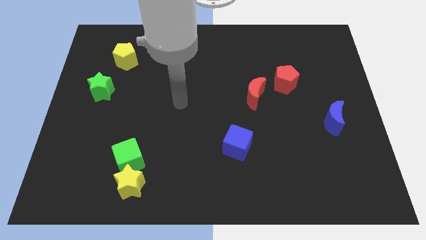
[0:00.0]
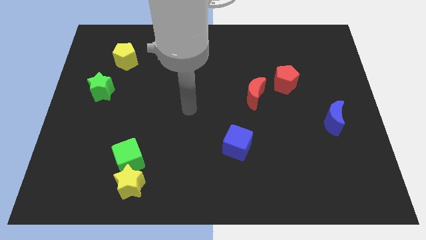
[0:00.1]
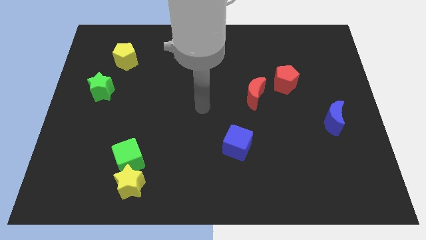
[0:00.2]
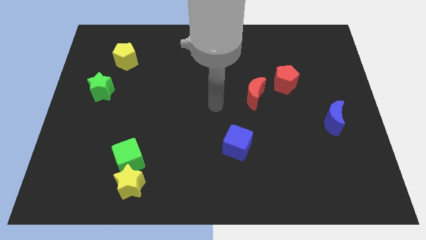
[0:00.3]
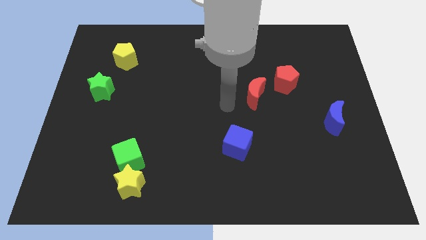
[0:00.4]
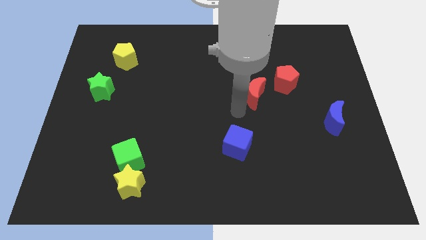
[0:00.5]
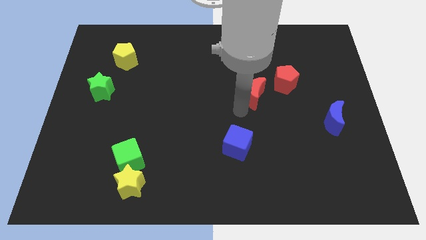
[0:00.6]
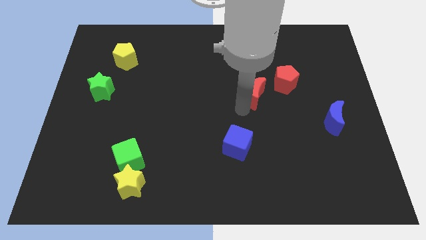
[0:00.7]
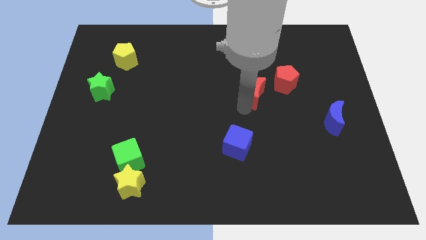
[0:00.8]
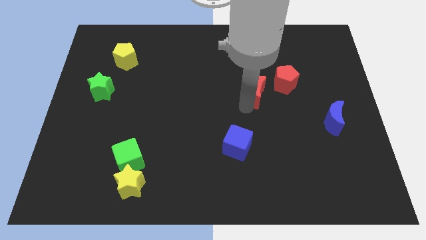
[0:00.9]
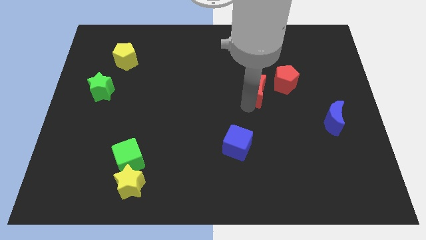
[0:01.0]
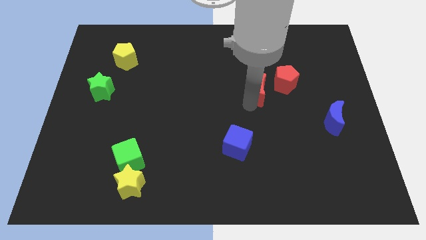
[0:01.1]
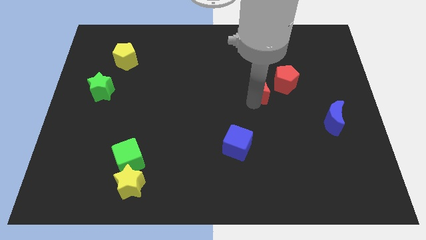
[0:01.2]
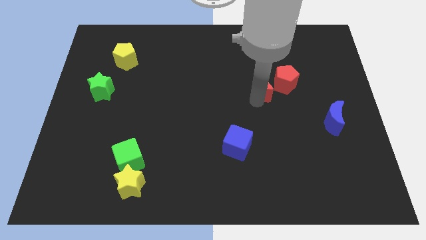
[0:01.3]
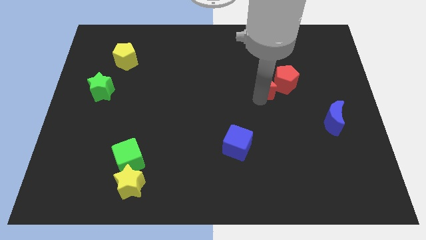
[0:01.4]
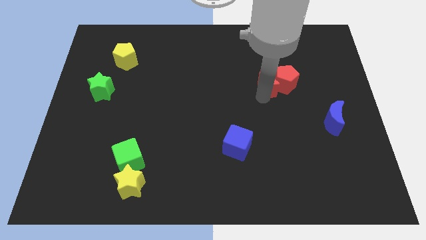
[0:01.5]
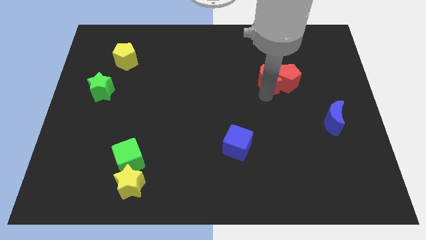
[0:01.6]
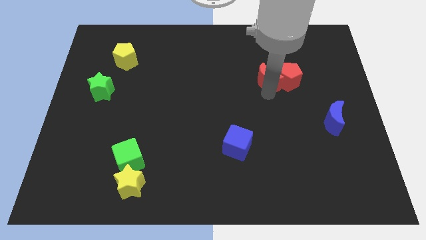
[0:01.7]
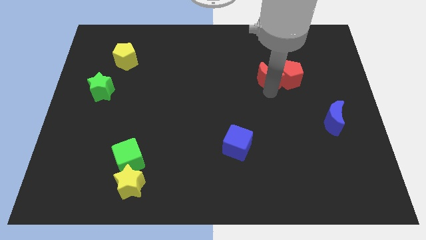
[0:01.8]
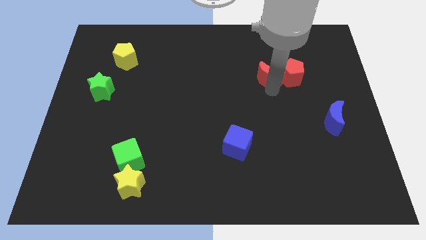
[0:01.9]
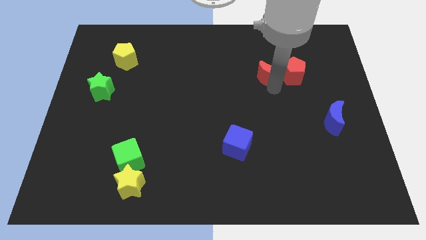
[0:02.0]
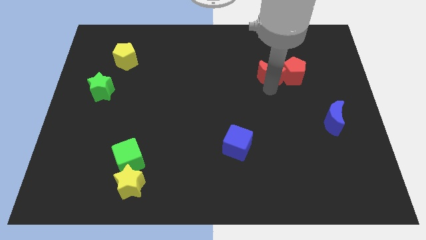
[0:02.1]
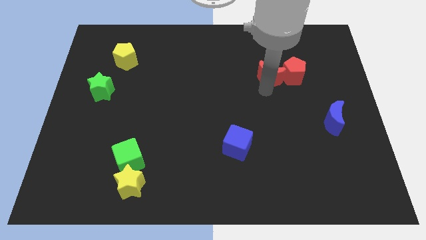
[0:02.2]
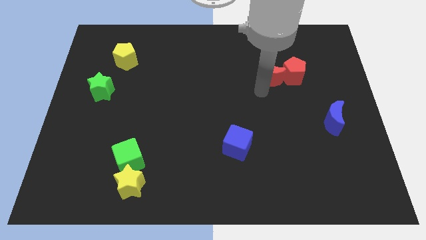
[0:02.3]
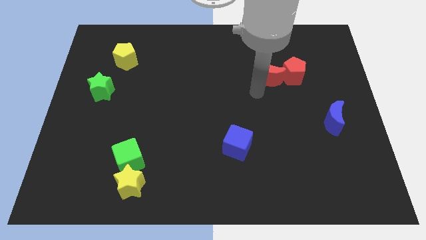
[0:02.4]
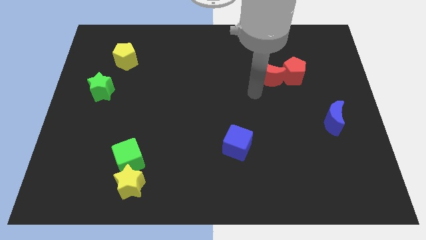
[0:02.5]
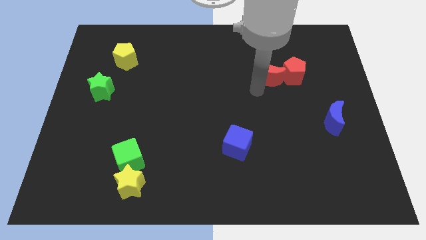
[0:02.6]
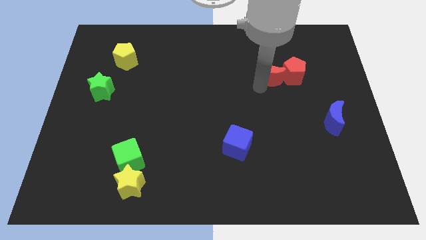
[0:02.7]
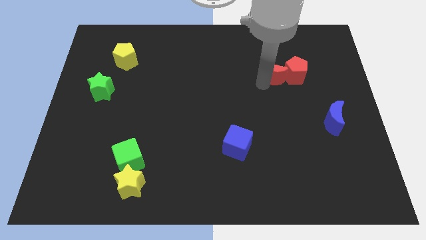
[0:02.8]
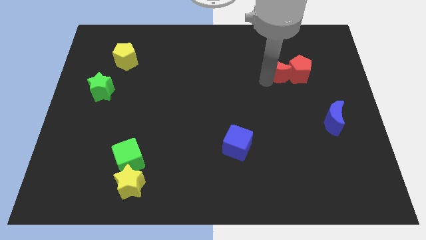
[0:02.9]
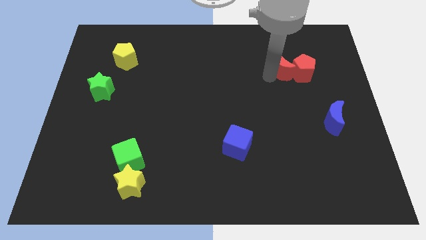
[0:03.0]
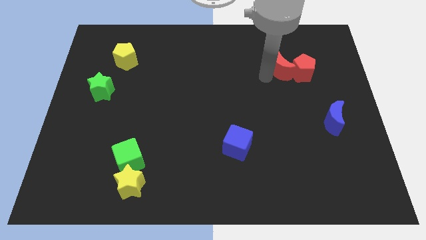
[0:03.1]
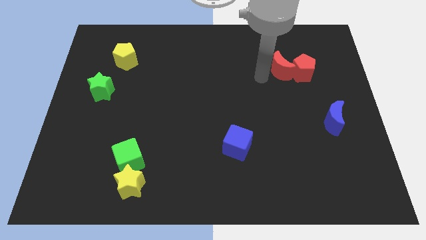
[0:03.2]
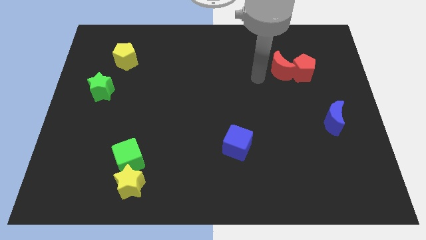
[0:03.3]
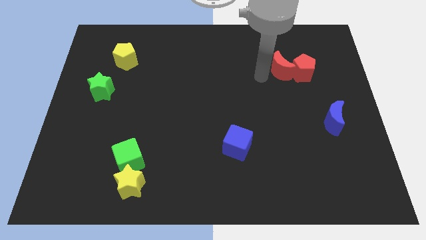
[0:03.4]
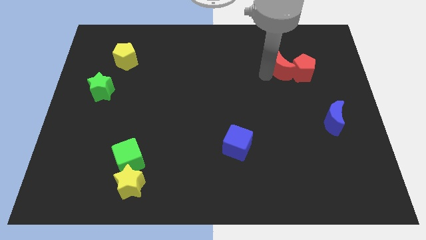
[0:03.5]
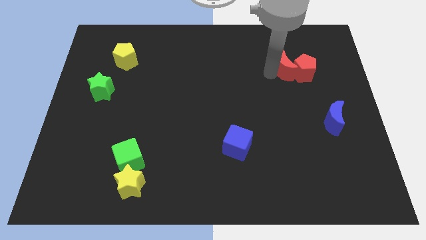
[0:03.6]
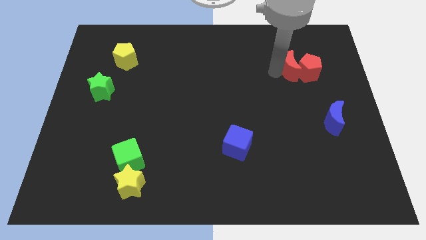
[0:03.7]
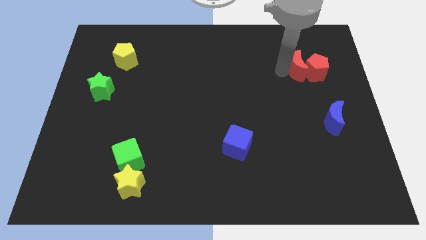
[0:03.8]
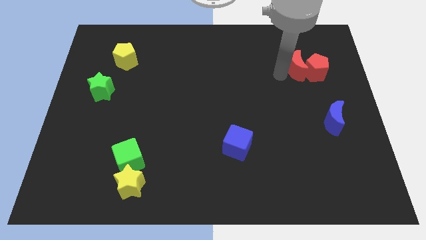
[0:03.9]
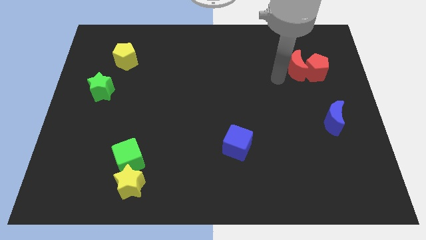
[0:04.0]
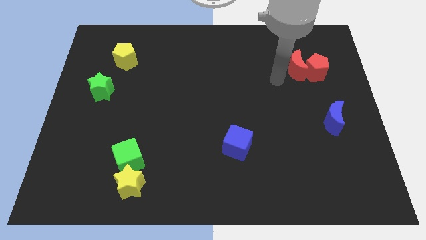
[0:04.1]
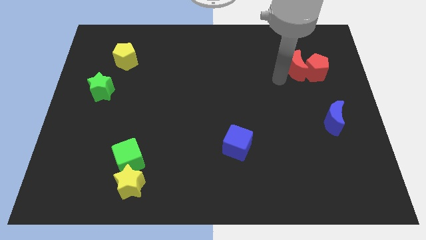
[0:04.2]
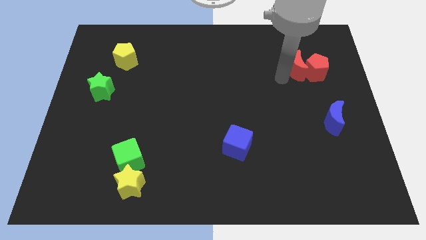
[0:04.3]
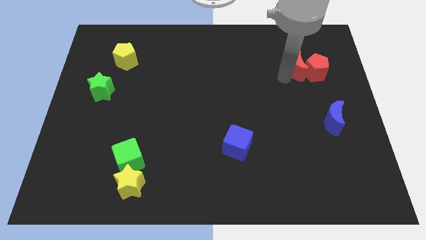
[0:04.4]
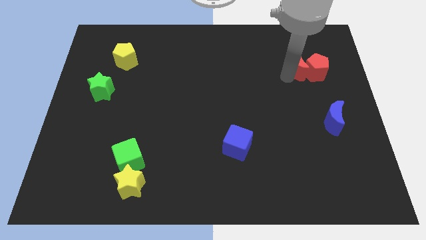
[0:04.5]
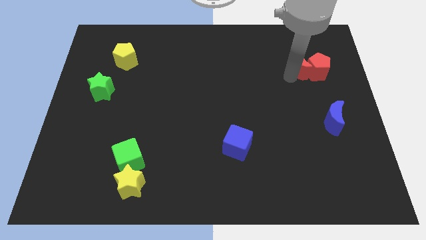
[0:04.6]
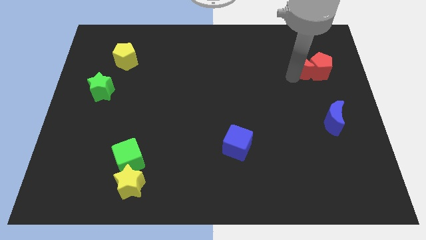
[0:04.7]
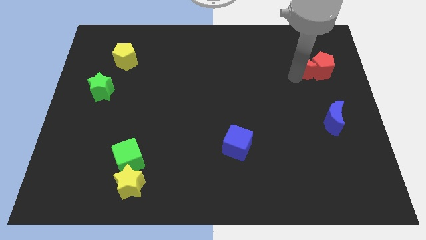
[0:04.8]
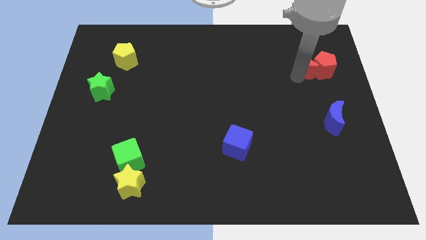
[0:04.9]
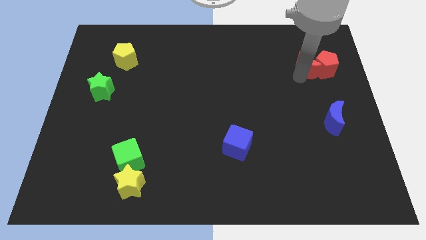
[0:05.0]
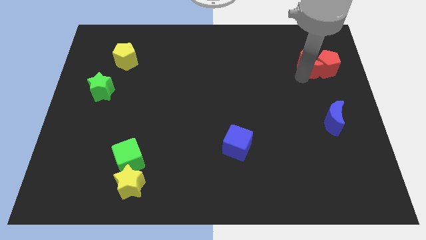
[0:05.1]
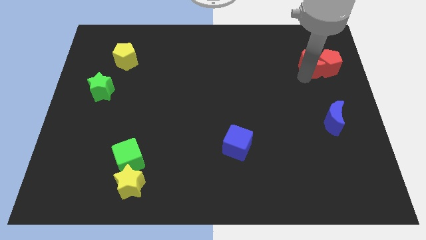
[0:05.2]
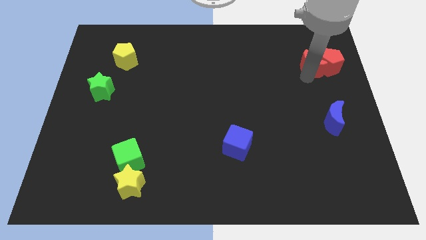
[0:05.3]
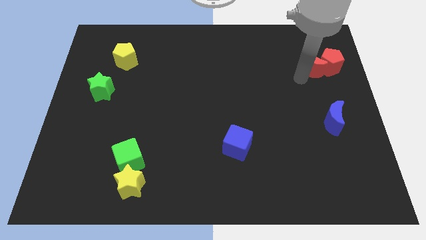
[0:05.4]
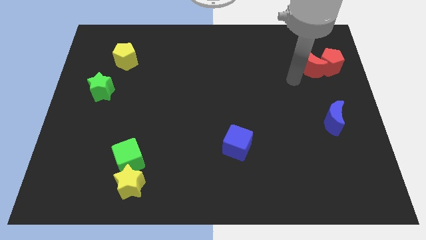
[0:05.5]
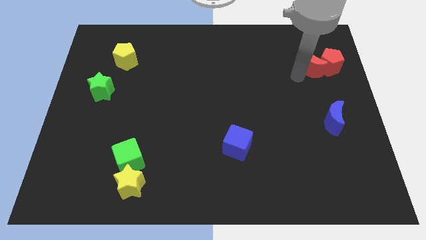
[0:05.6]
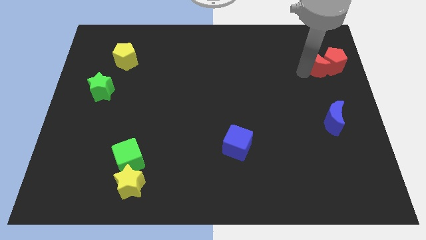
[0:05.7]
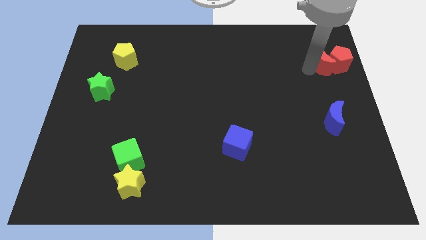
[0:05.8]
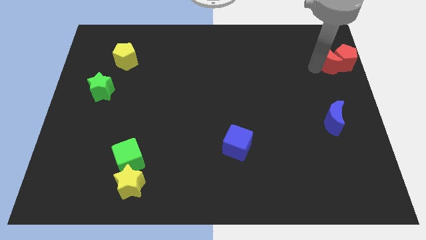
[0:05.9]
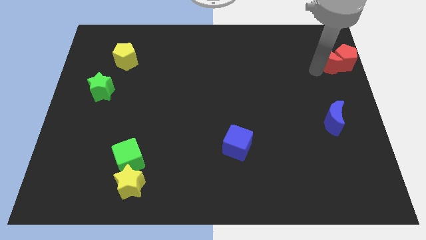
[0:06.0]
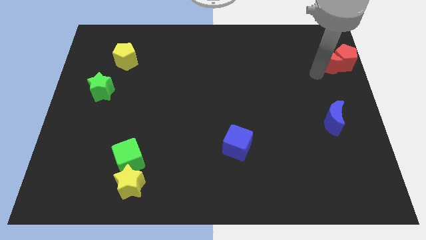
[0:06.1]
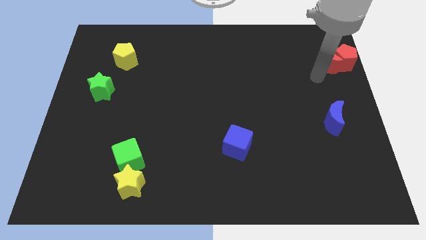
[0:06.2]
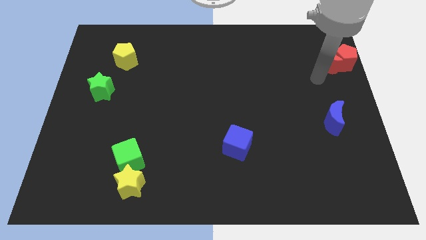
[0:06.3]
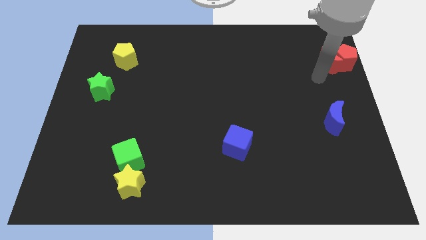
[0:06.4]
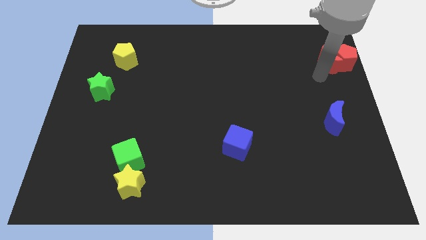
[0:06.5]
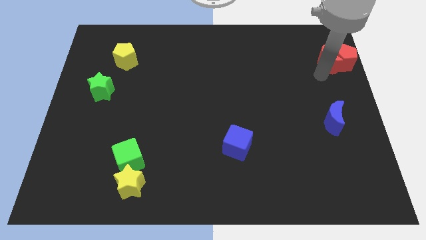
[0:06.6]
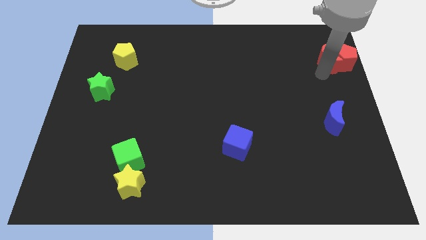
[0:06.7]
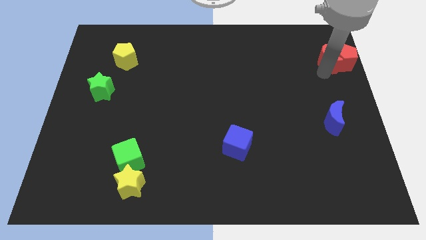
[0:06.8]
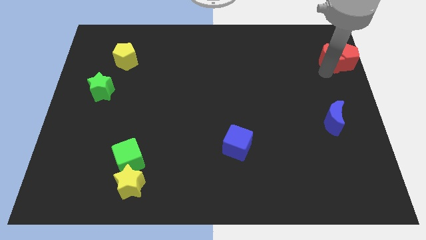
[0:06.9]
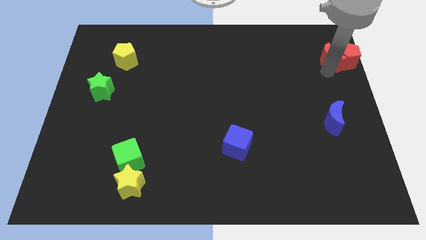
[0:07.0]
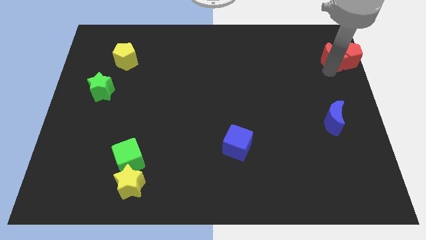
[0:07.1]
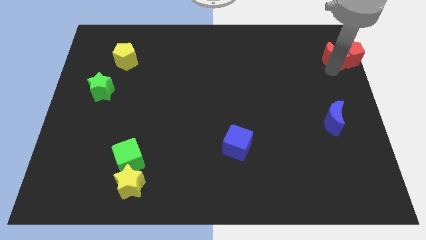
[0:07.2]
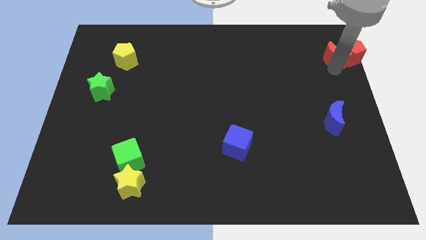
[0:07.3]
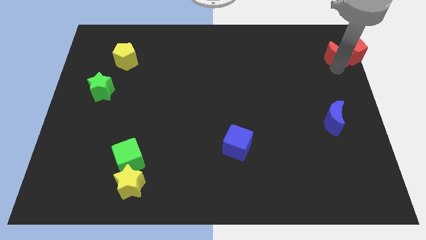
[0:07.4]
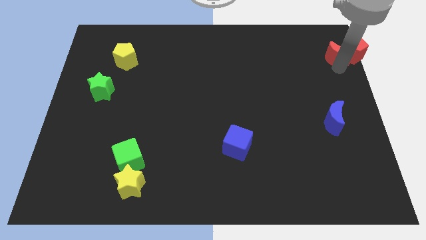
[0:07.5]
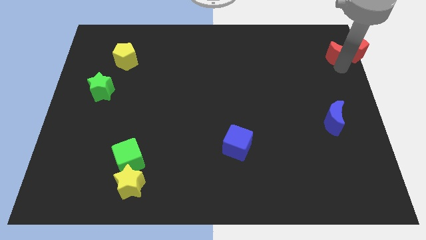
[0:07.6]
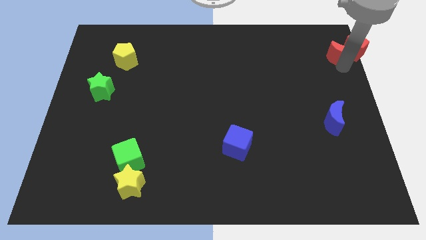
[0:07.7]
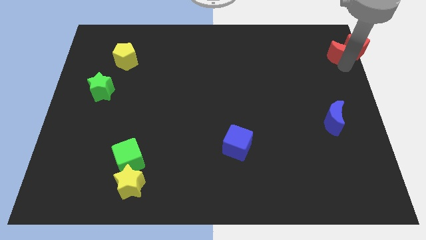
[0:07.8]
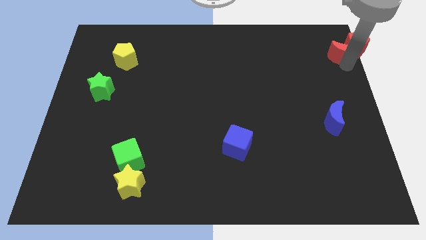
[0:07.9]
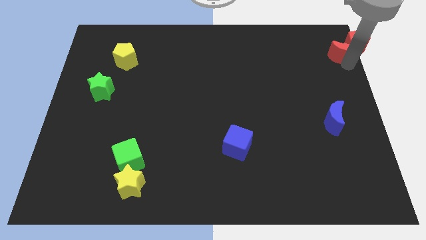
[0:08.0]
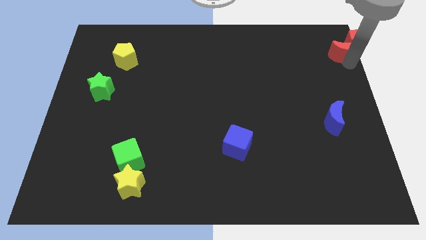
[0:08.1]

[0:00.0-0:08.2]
move the red moon to the upper right corner
